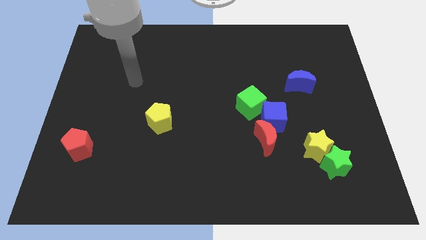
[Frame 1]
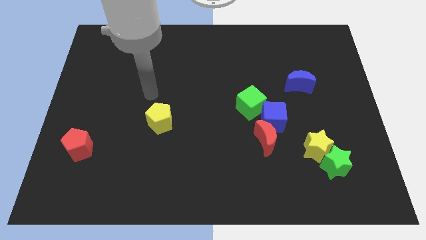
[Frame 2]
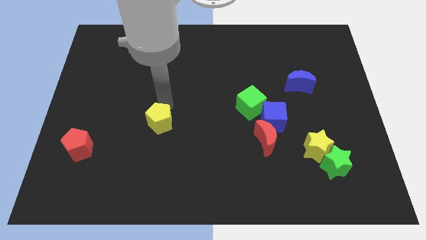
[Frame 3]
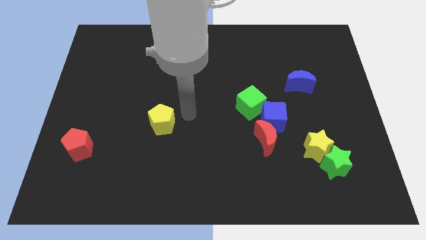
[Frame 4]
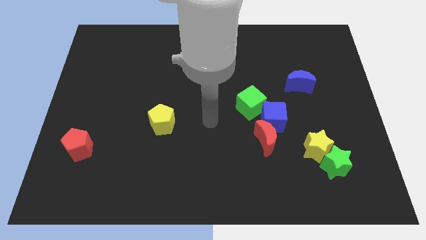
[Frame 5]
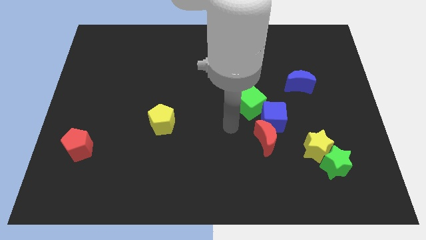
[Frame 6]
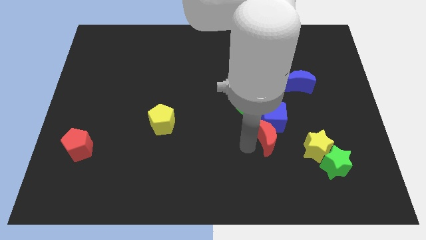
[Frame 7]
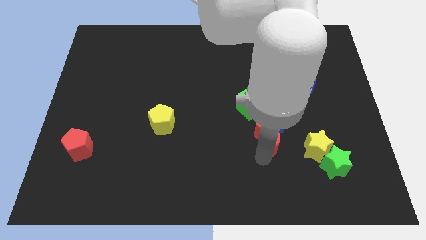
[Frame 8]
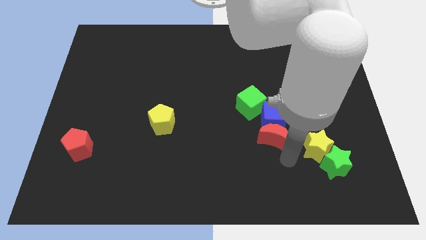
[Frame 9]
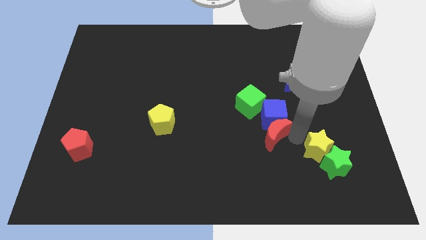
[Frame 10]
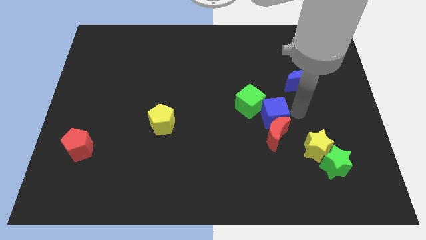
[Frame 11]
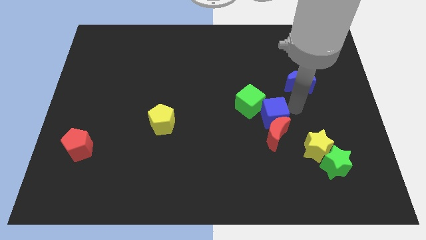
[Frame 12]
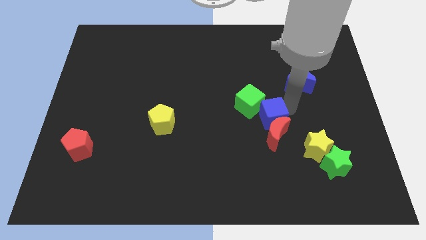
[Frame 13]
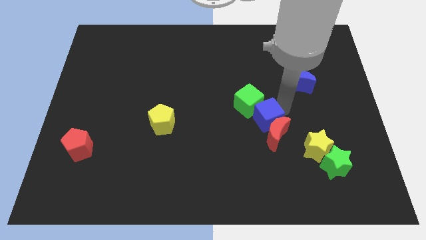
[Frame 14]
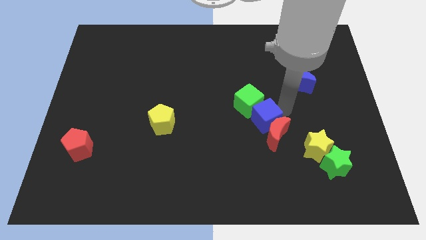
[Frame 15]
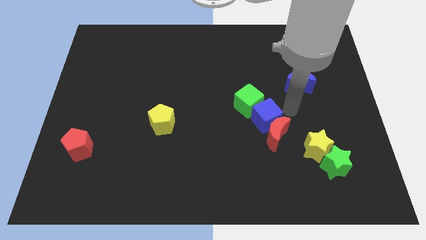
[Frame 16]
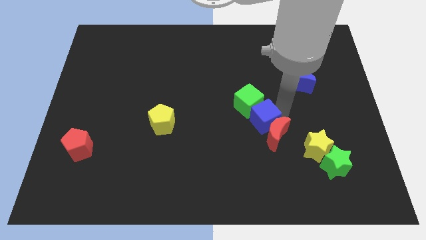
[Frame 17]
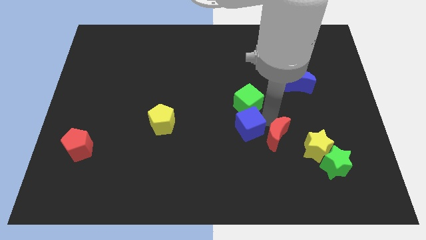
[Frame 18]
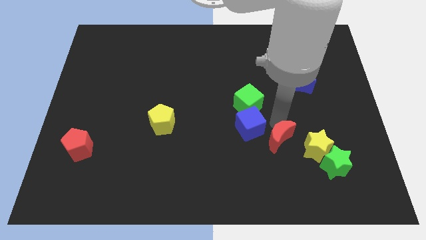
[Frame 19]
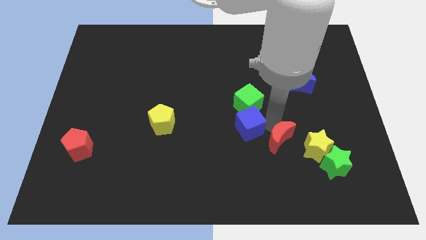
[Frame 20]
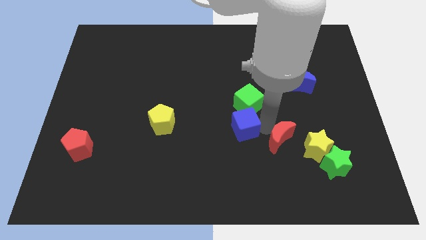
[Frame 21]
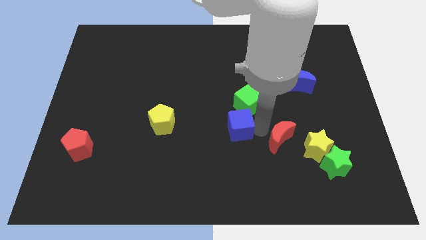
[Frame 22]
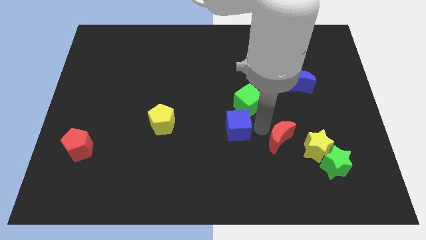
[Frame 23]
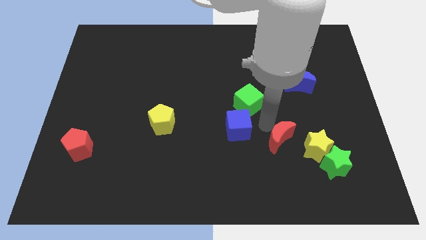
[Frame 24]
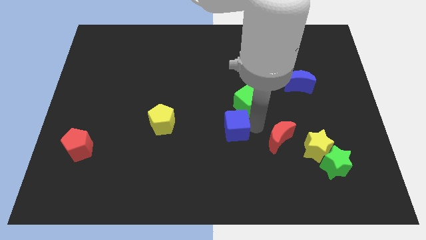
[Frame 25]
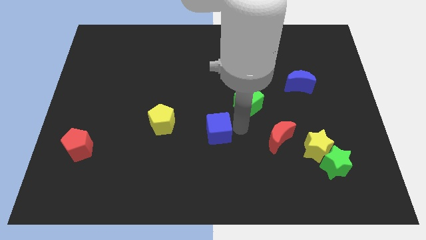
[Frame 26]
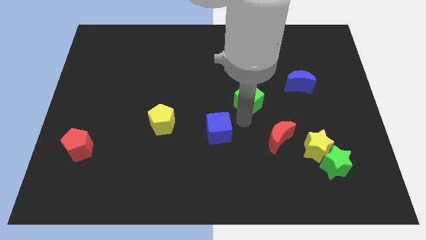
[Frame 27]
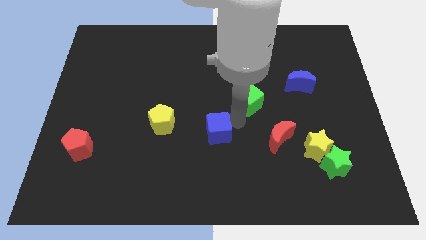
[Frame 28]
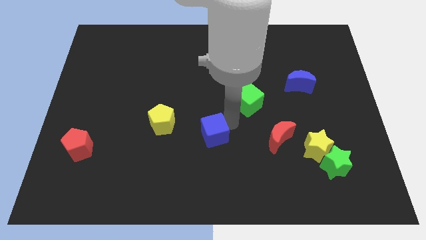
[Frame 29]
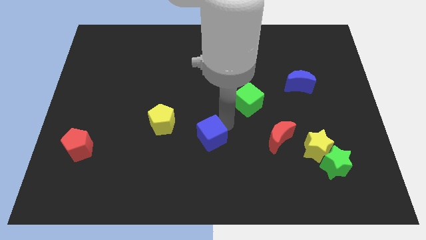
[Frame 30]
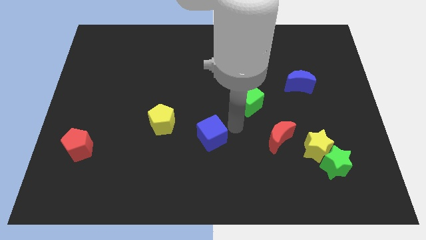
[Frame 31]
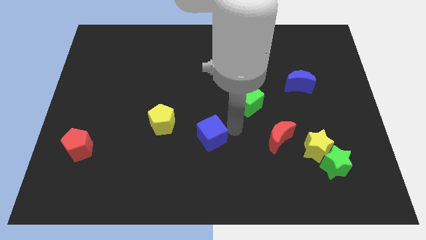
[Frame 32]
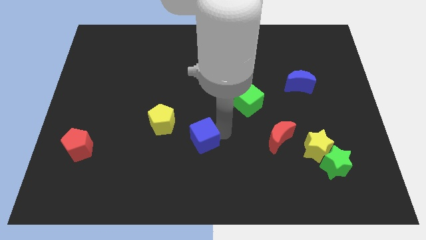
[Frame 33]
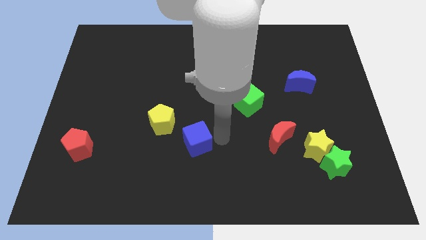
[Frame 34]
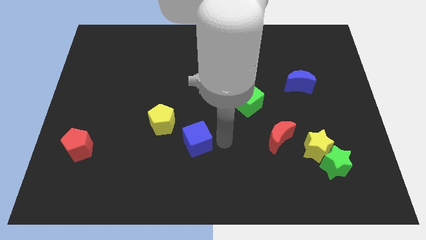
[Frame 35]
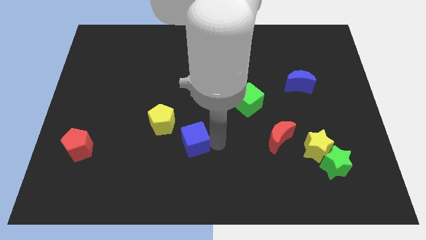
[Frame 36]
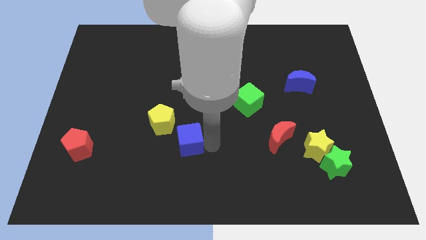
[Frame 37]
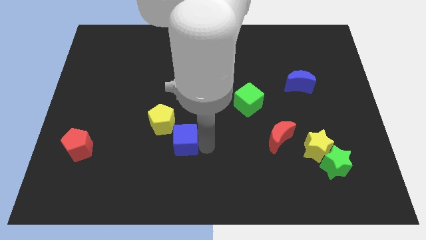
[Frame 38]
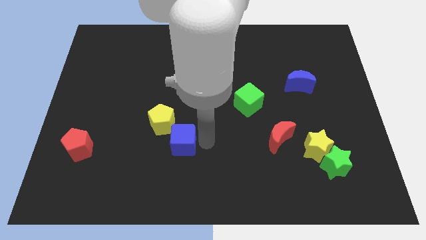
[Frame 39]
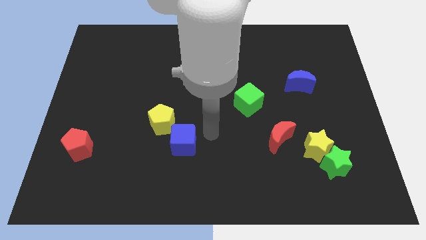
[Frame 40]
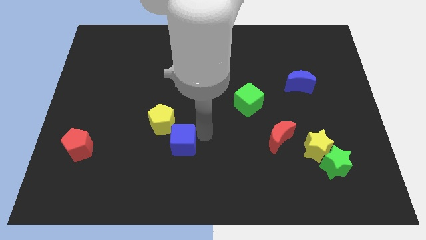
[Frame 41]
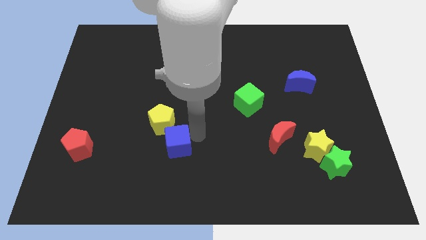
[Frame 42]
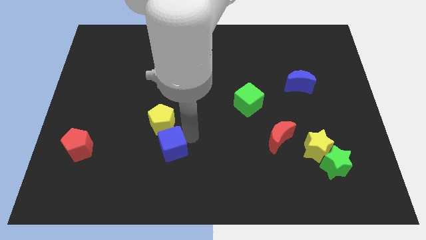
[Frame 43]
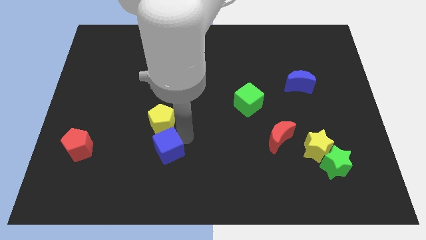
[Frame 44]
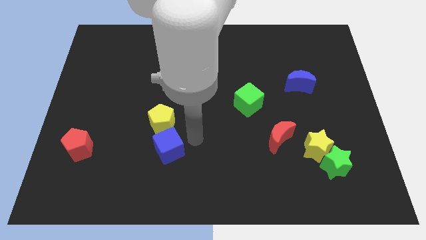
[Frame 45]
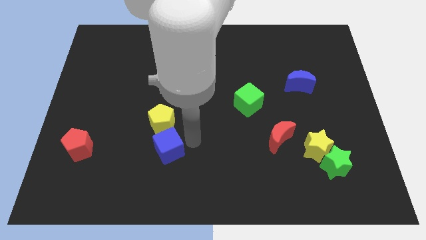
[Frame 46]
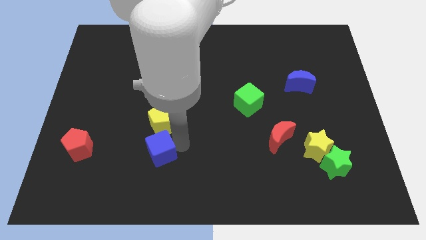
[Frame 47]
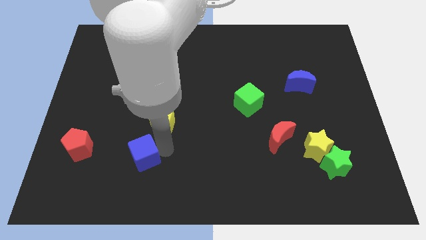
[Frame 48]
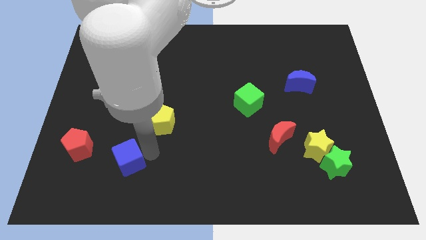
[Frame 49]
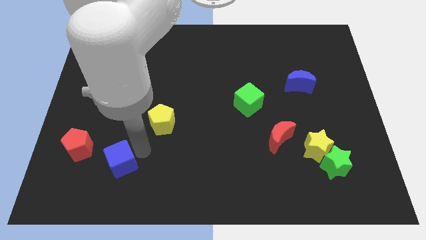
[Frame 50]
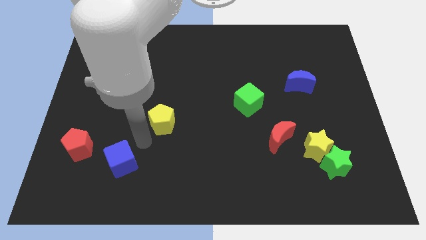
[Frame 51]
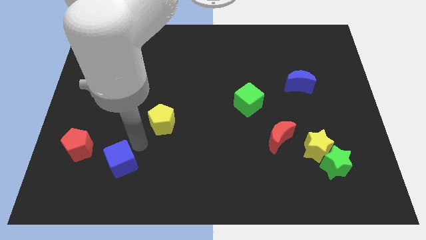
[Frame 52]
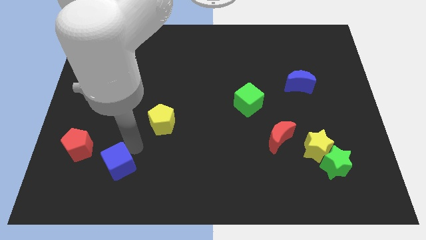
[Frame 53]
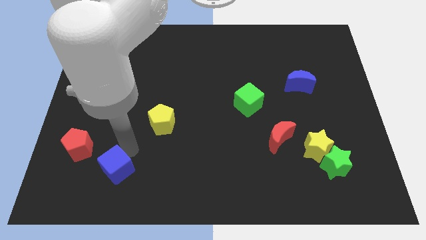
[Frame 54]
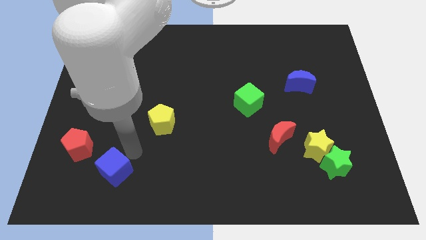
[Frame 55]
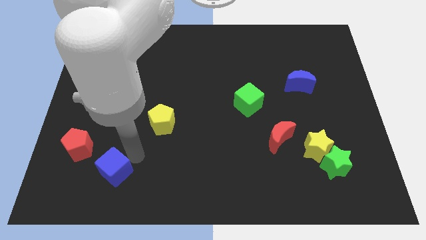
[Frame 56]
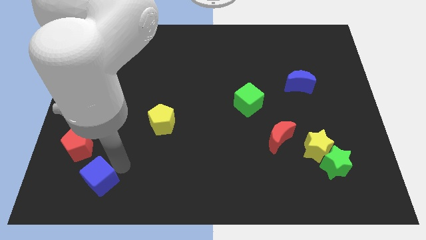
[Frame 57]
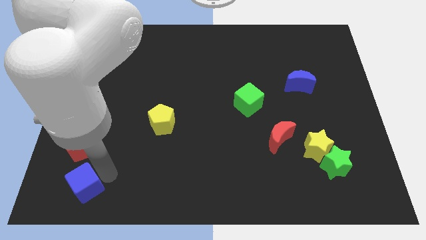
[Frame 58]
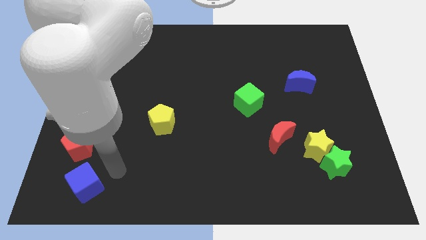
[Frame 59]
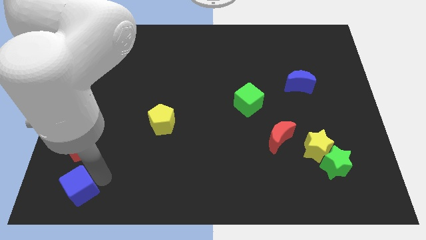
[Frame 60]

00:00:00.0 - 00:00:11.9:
slide the blue cube to the bottom left
